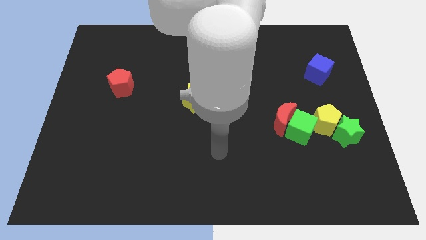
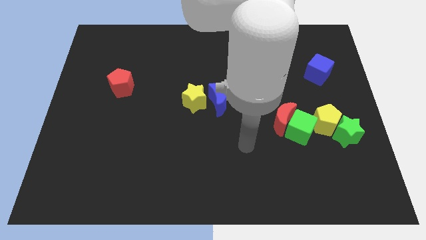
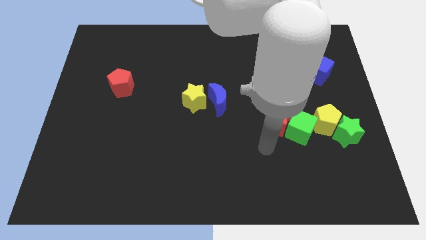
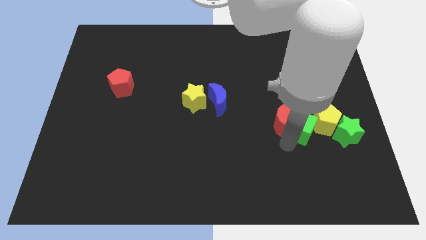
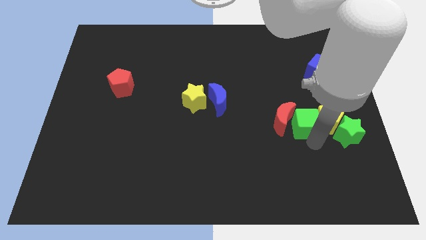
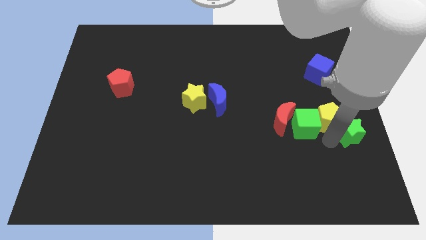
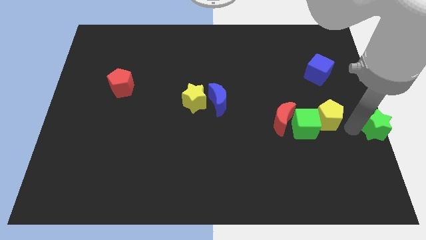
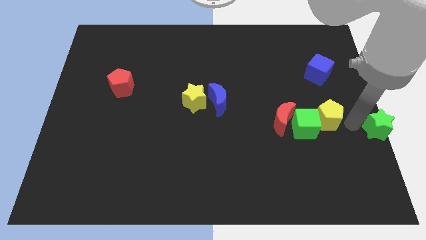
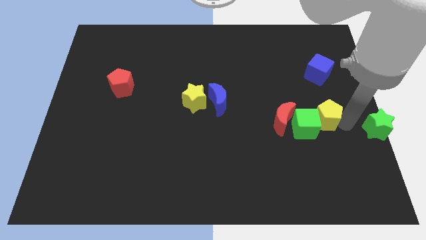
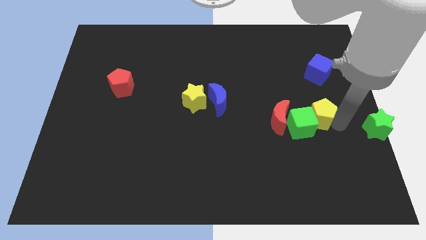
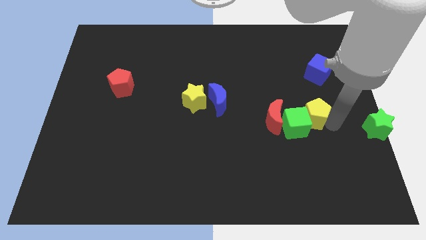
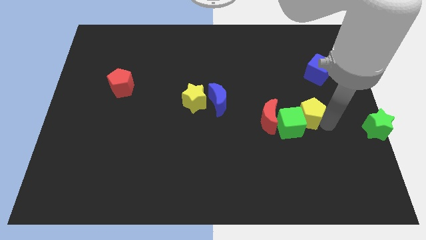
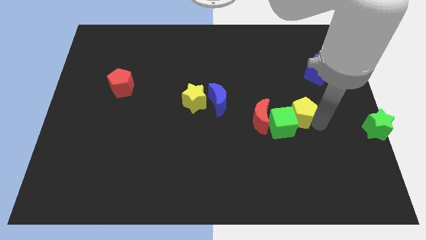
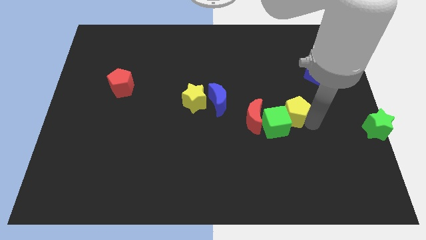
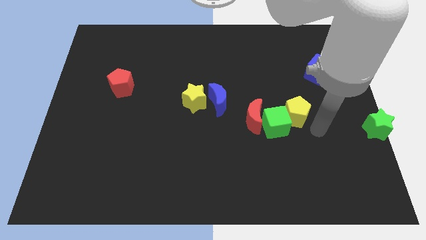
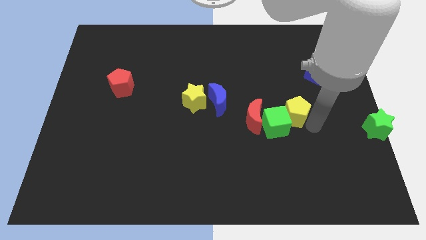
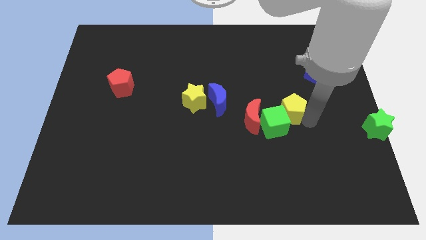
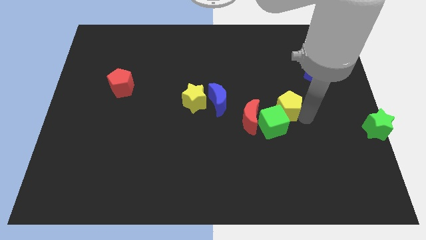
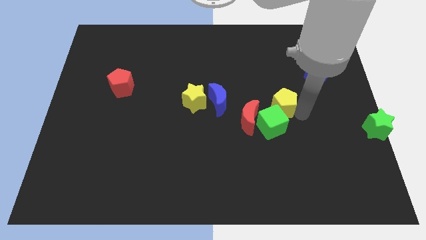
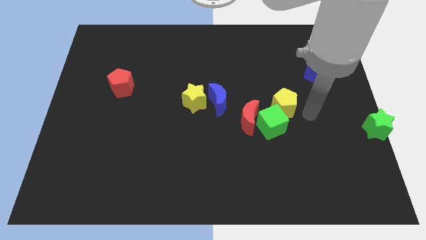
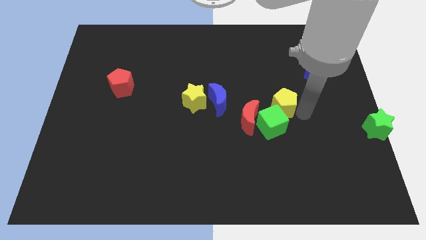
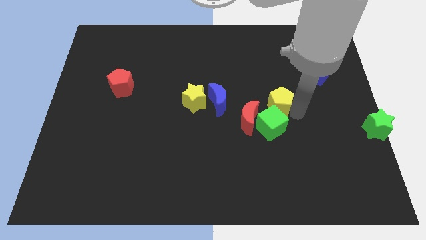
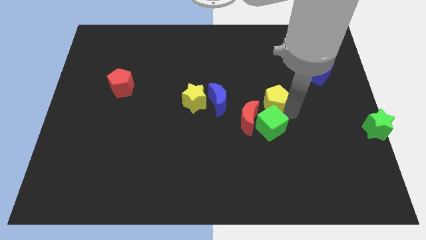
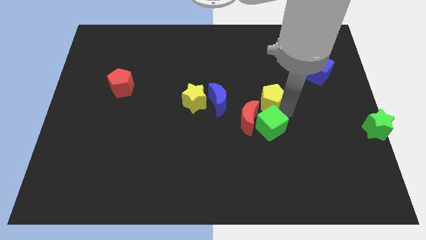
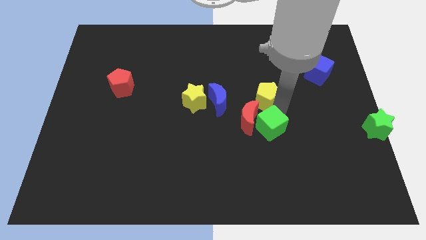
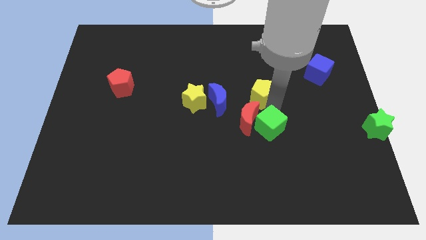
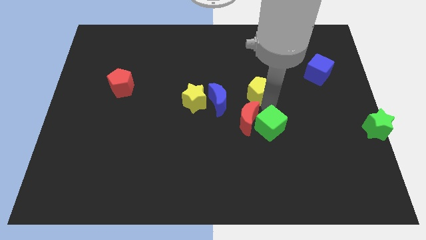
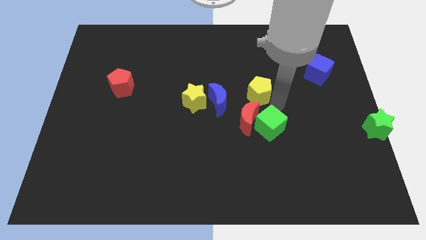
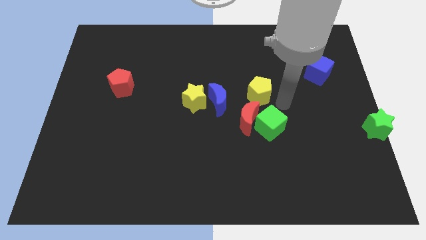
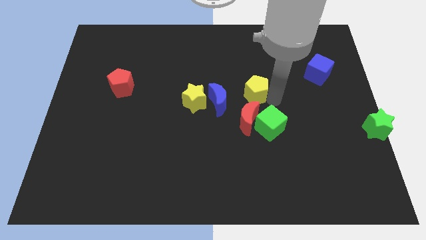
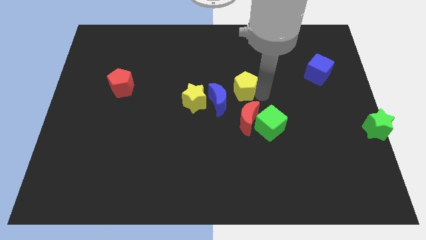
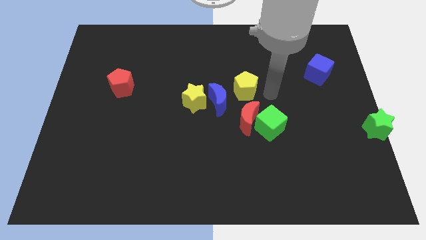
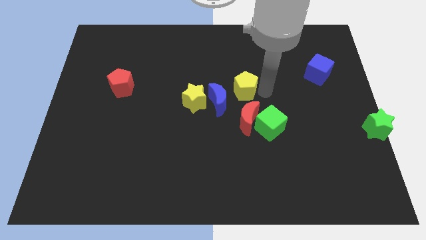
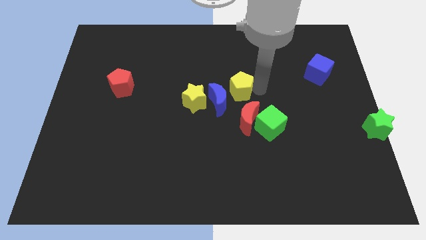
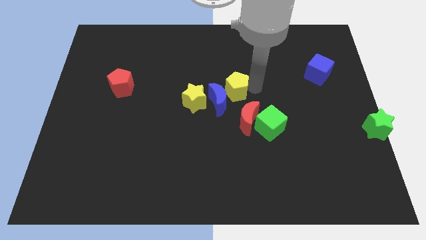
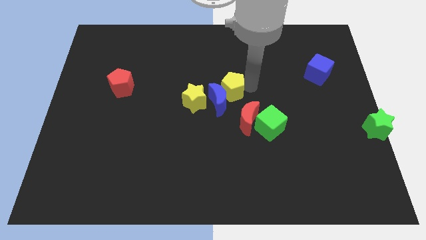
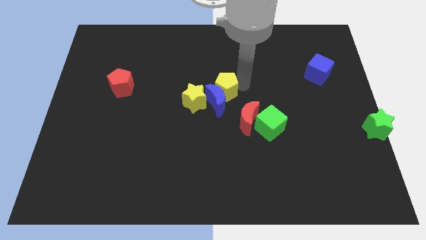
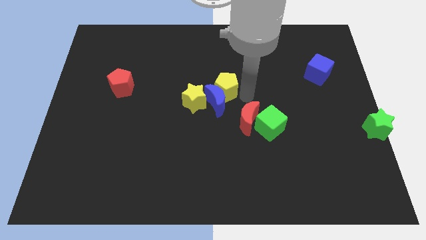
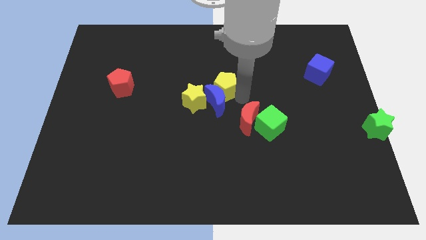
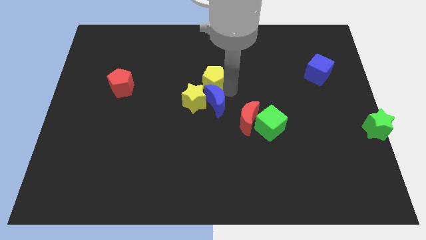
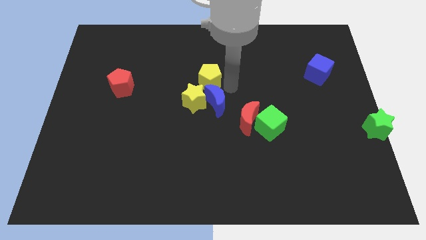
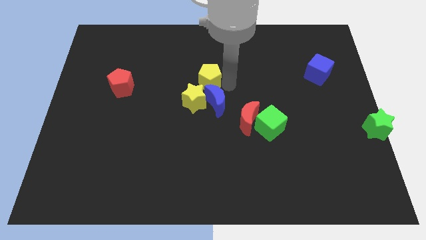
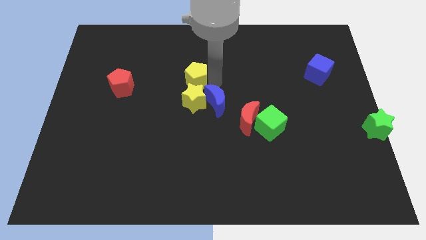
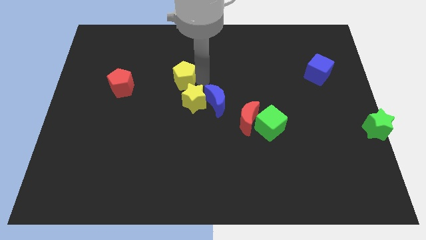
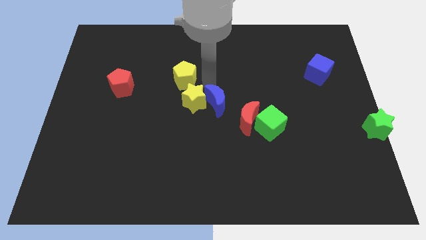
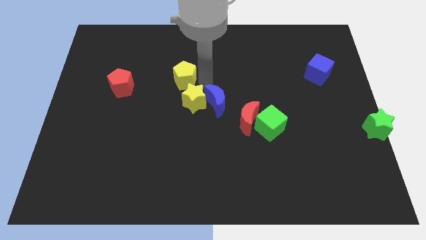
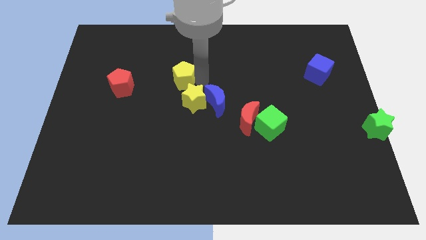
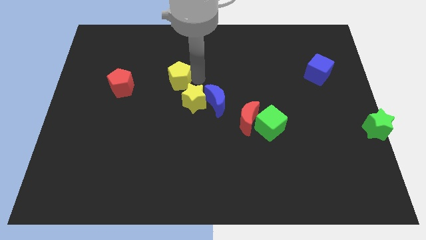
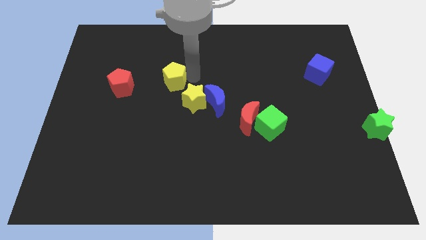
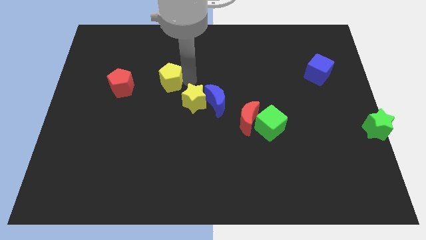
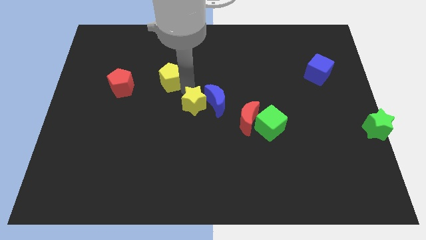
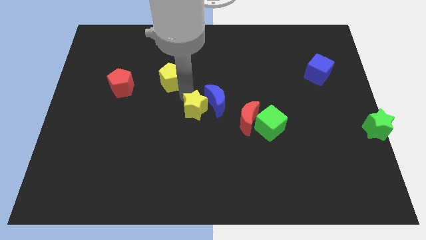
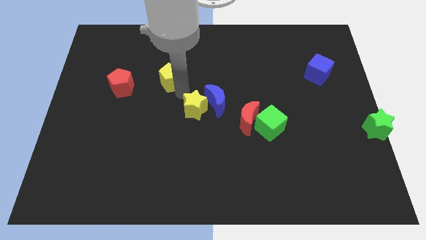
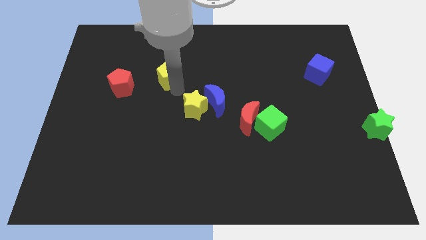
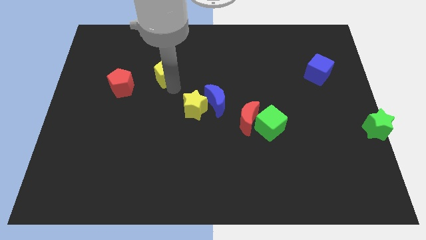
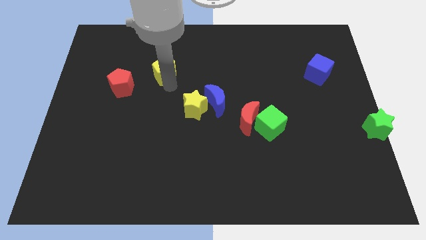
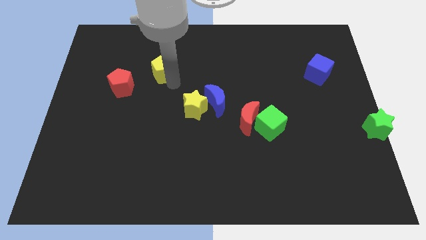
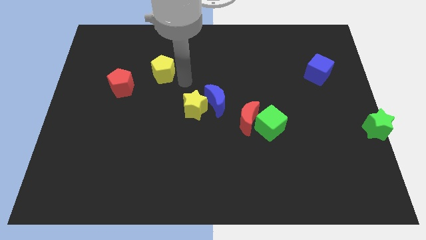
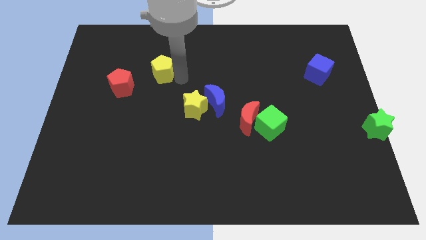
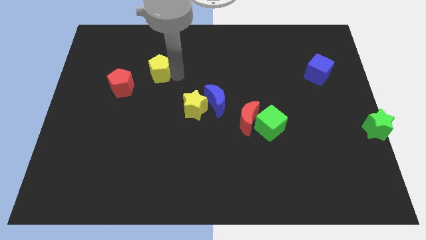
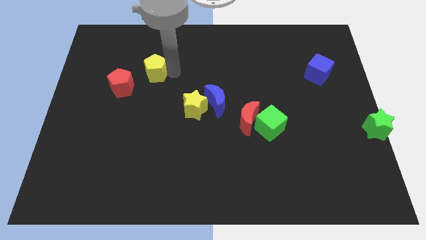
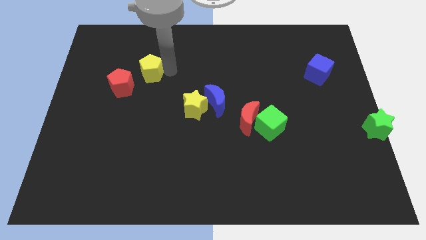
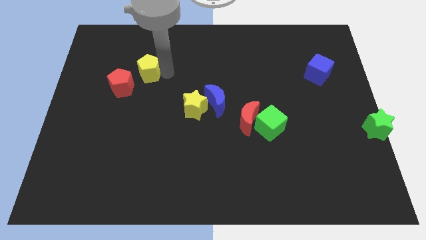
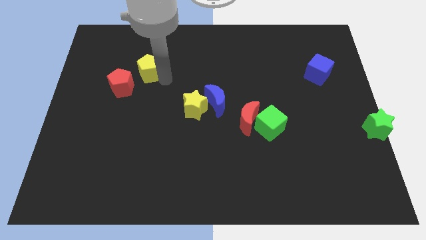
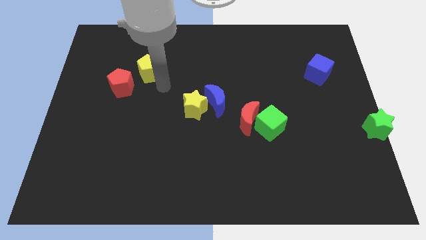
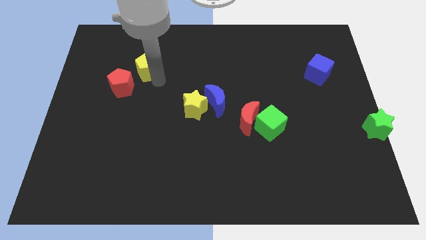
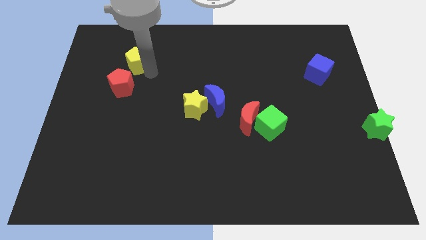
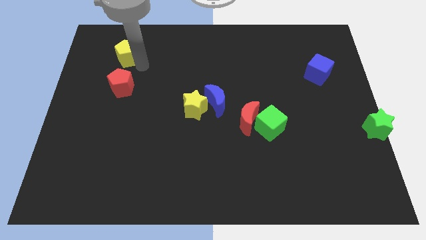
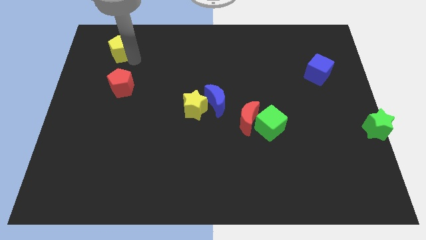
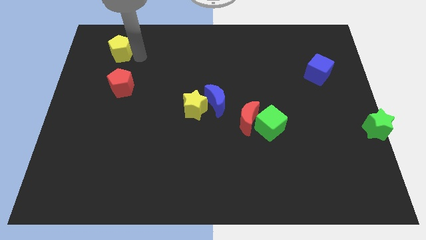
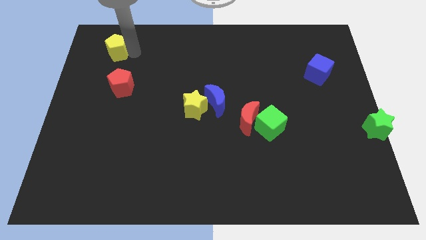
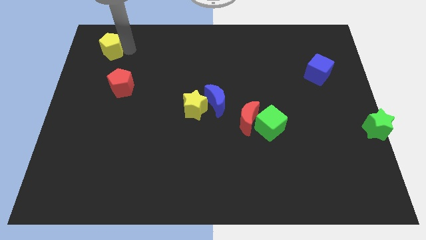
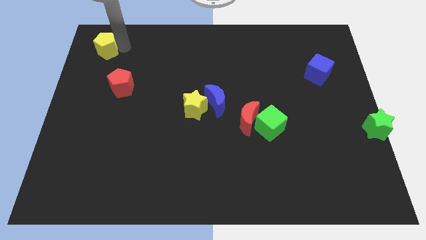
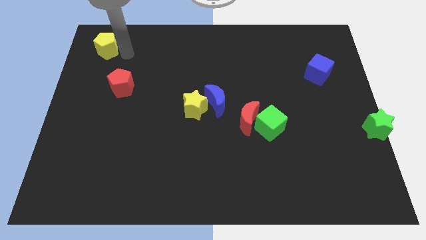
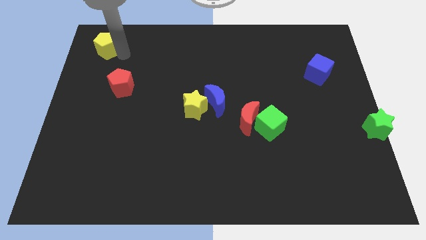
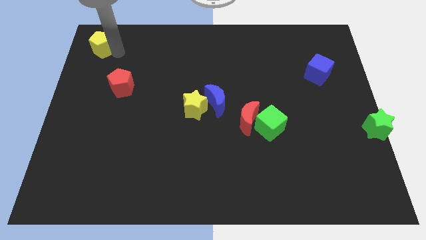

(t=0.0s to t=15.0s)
slide the yellow pentagon to the top left corner
